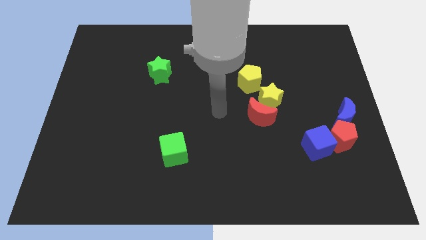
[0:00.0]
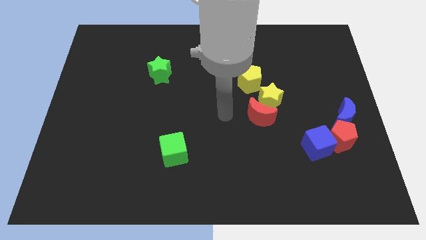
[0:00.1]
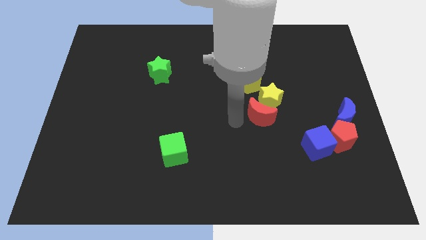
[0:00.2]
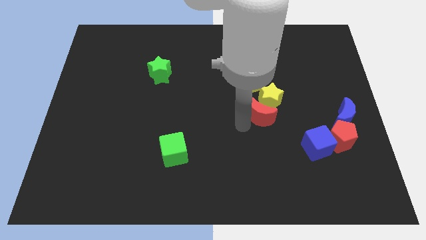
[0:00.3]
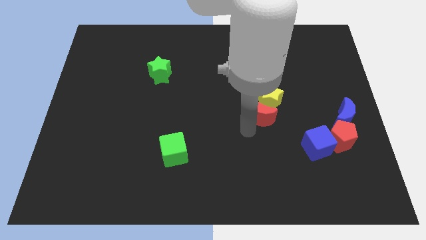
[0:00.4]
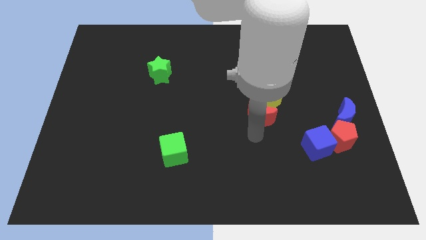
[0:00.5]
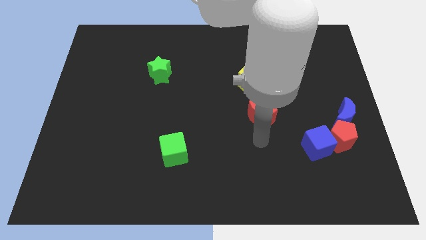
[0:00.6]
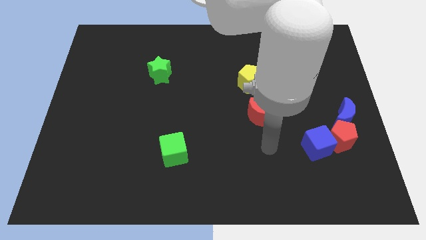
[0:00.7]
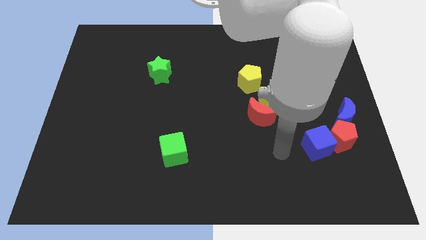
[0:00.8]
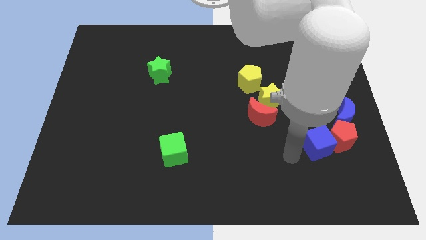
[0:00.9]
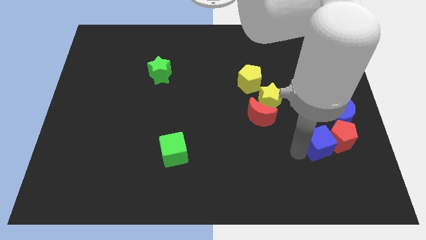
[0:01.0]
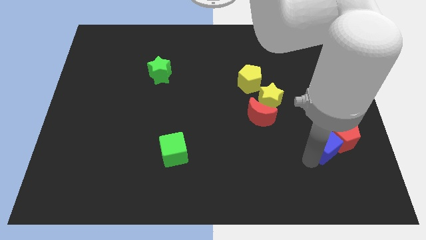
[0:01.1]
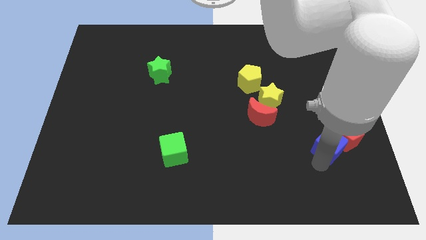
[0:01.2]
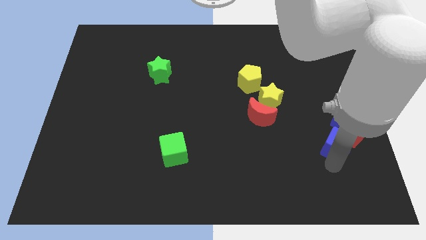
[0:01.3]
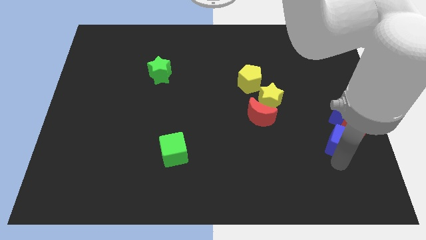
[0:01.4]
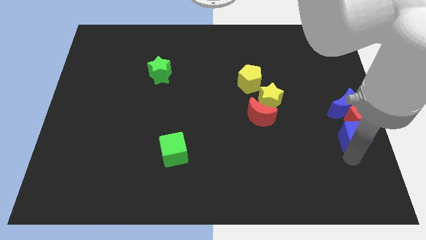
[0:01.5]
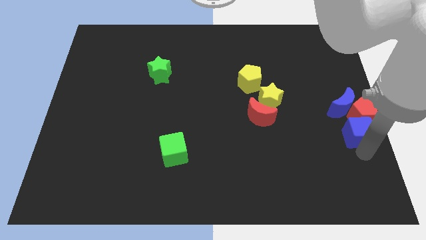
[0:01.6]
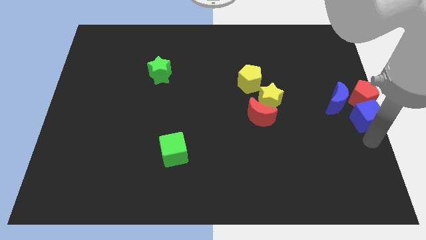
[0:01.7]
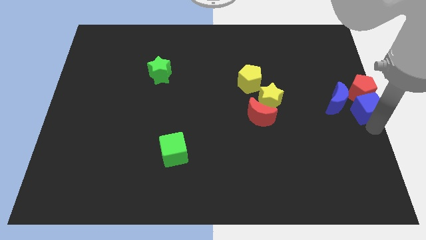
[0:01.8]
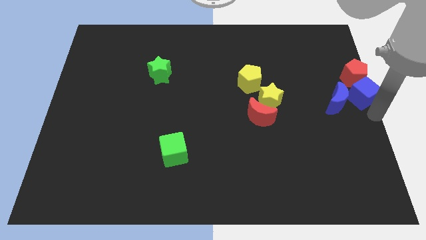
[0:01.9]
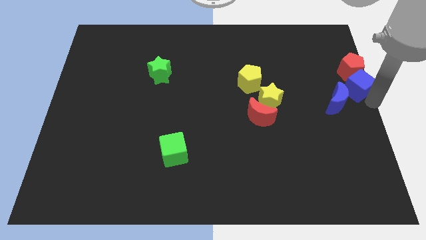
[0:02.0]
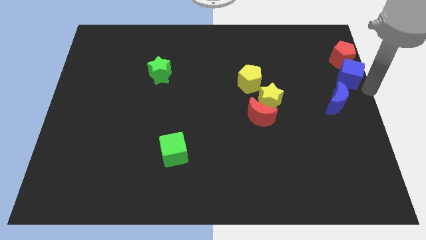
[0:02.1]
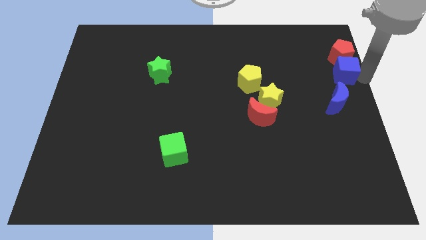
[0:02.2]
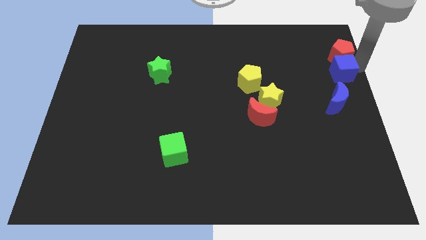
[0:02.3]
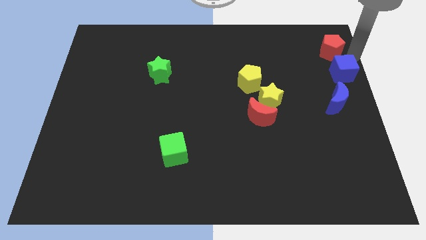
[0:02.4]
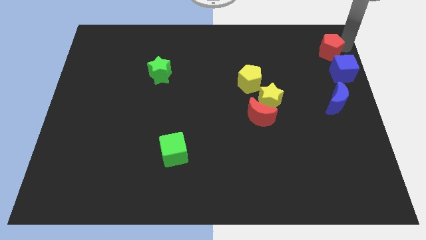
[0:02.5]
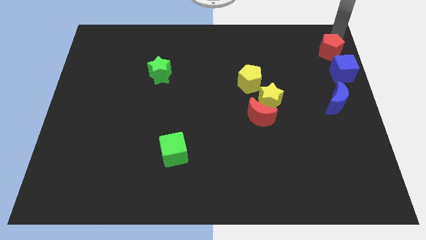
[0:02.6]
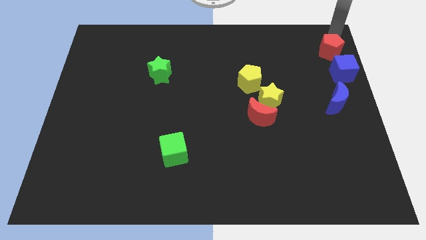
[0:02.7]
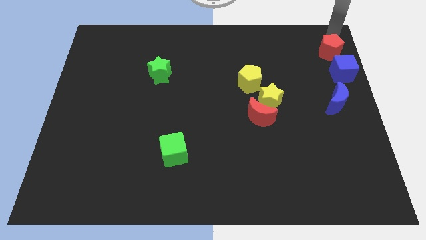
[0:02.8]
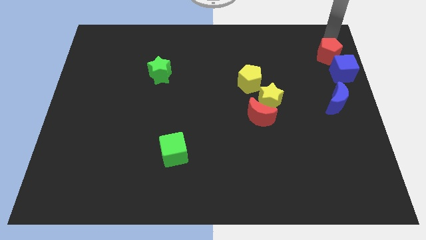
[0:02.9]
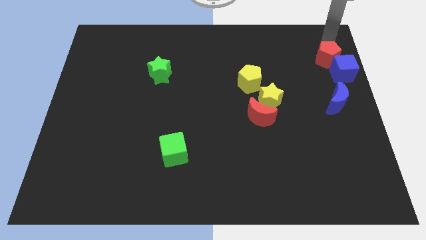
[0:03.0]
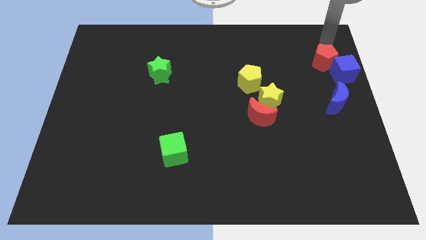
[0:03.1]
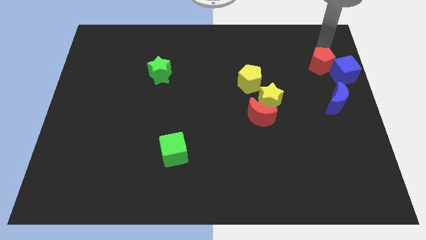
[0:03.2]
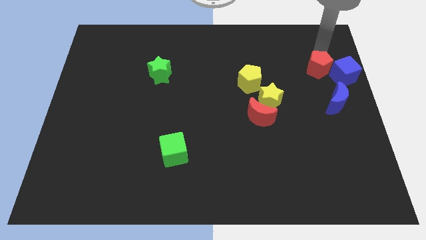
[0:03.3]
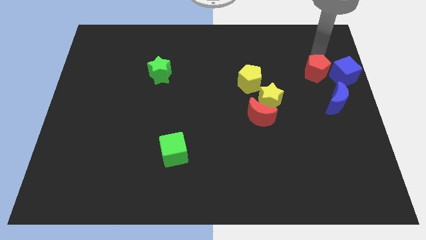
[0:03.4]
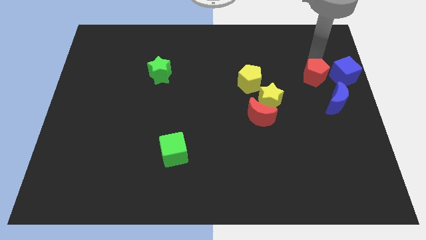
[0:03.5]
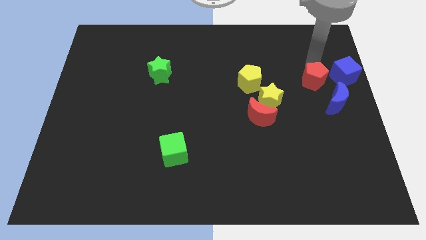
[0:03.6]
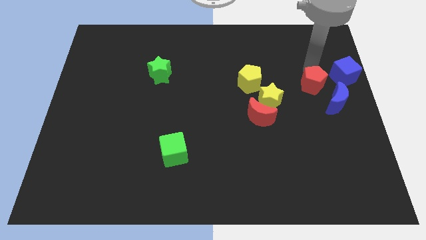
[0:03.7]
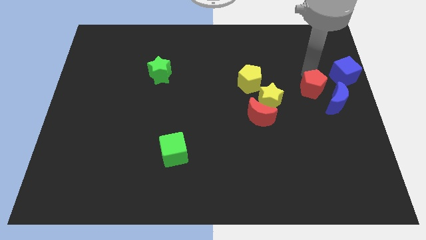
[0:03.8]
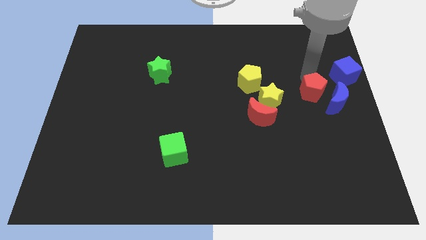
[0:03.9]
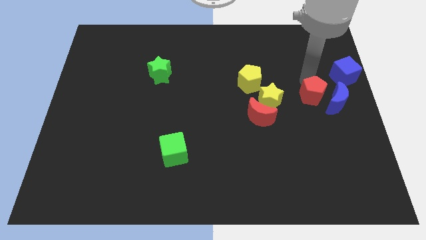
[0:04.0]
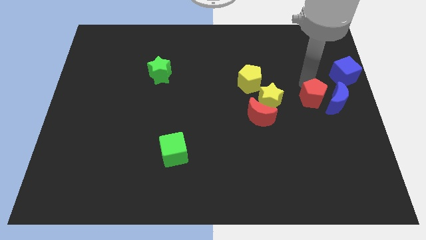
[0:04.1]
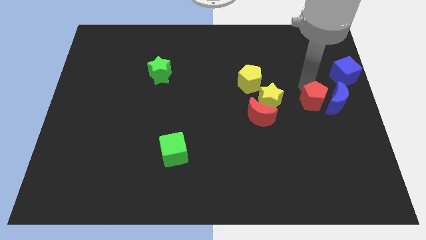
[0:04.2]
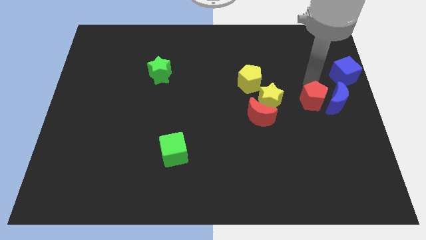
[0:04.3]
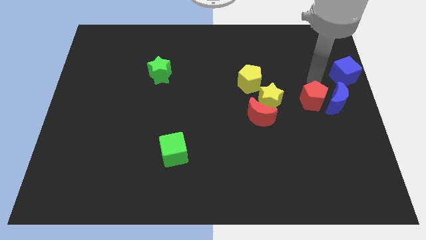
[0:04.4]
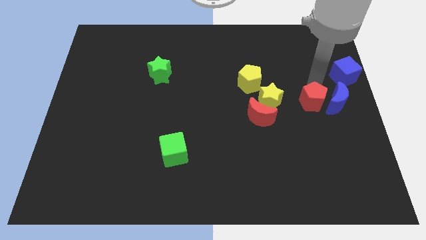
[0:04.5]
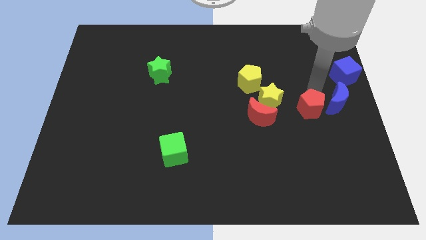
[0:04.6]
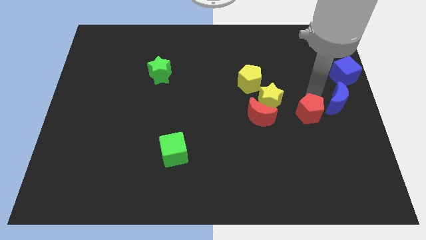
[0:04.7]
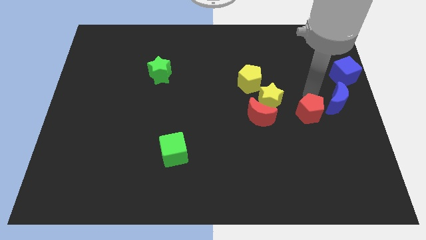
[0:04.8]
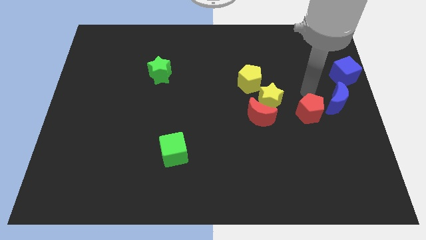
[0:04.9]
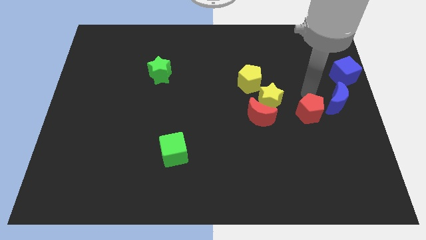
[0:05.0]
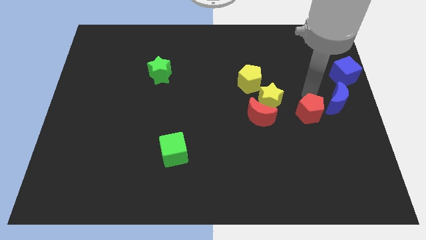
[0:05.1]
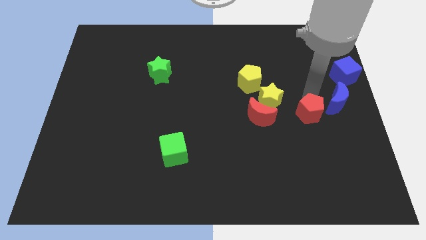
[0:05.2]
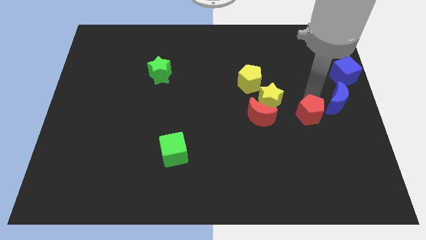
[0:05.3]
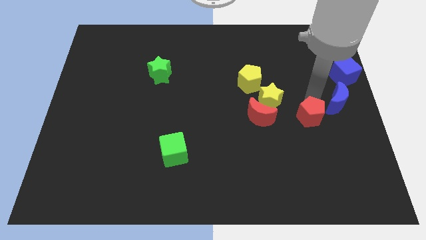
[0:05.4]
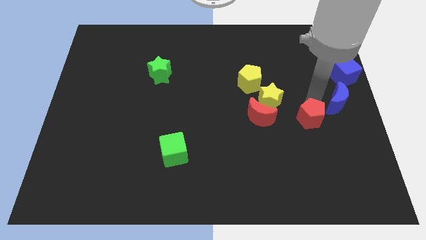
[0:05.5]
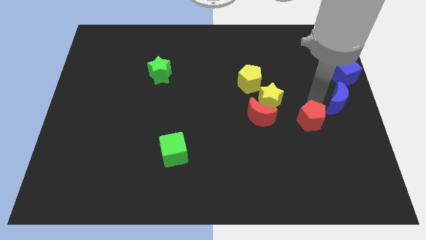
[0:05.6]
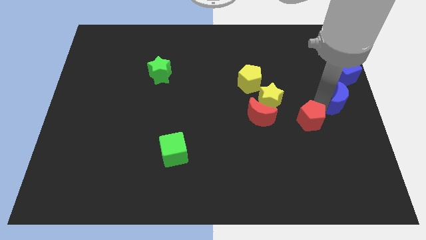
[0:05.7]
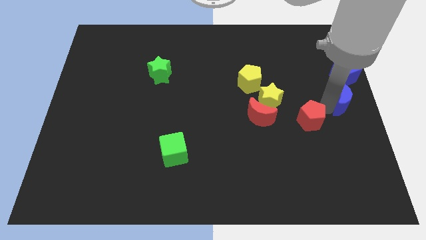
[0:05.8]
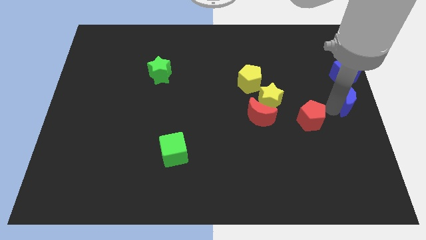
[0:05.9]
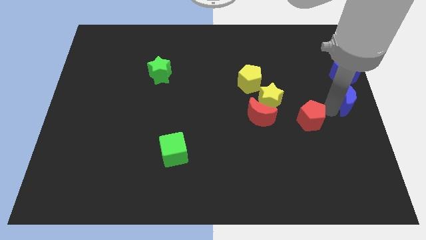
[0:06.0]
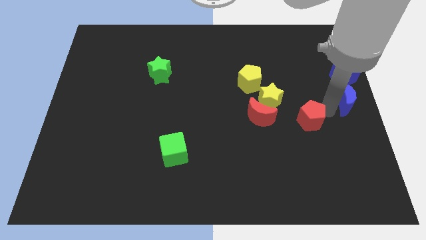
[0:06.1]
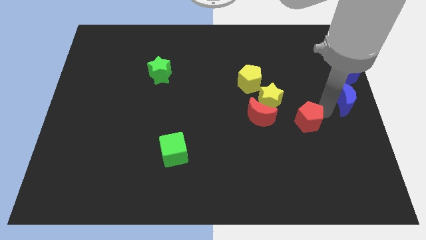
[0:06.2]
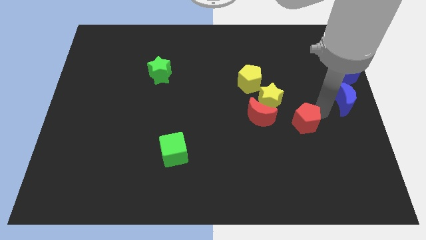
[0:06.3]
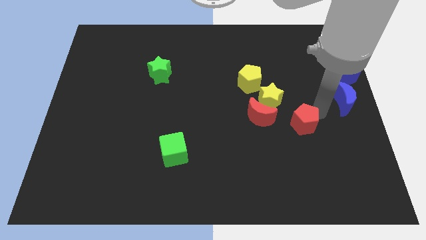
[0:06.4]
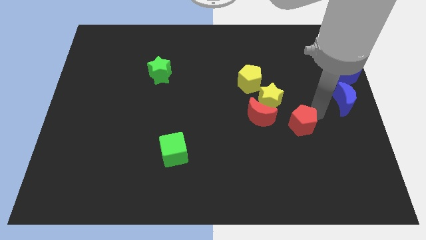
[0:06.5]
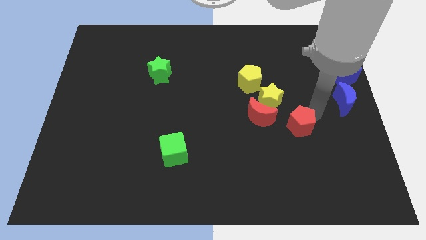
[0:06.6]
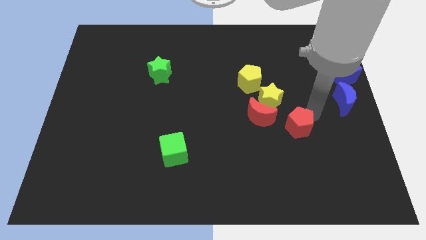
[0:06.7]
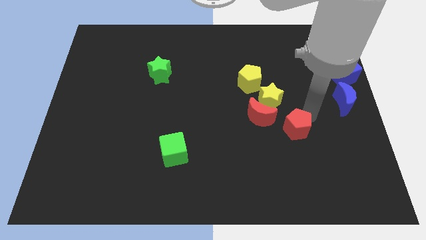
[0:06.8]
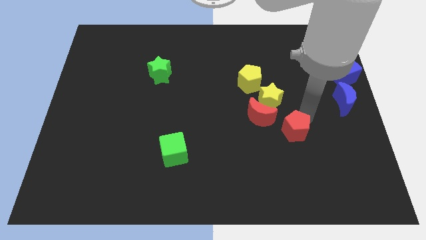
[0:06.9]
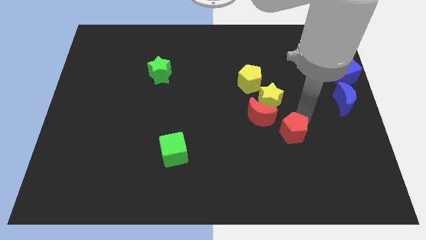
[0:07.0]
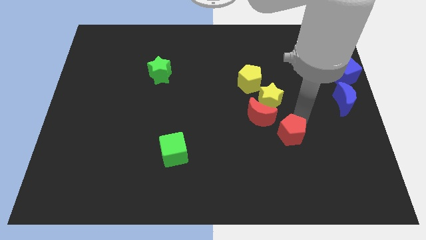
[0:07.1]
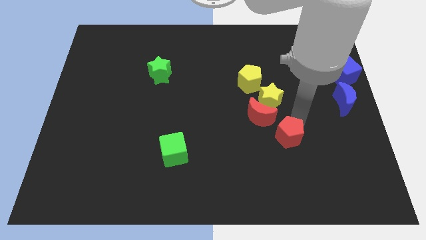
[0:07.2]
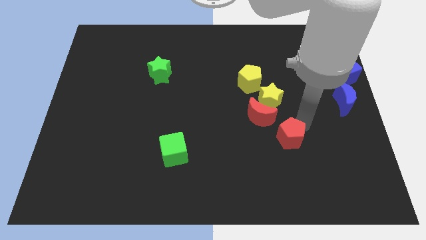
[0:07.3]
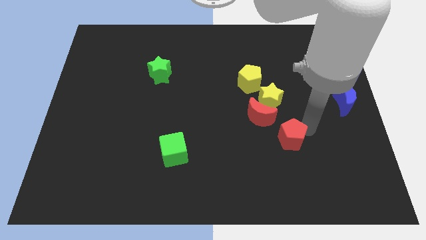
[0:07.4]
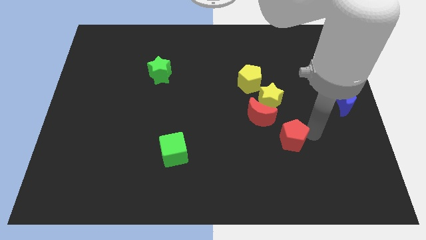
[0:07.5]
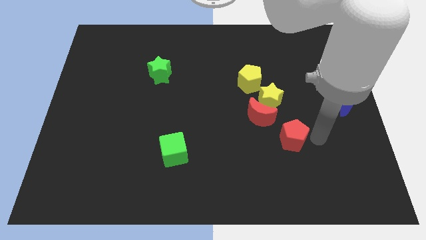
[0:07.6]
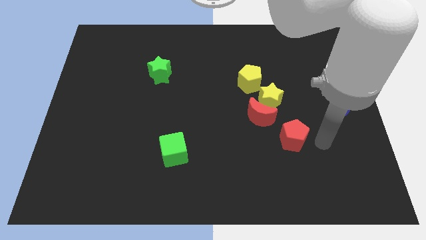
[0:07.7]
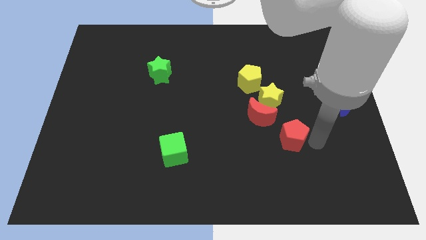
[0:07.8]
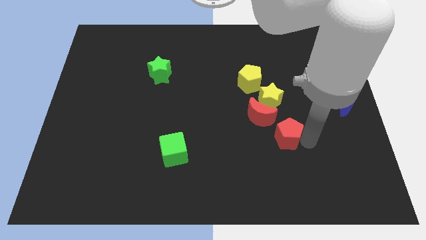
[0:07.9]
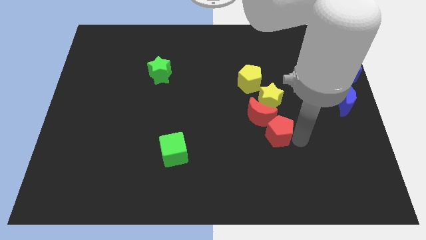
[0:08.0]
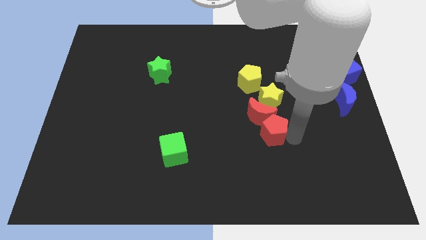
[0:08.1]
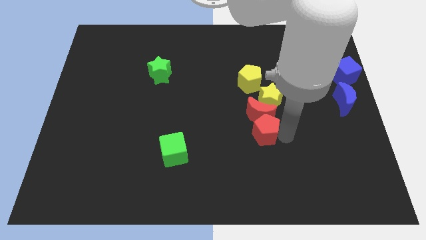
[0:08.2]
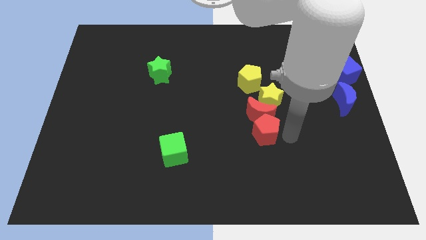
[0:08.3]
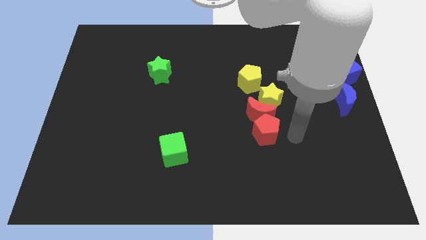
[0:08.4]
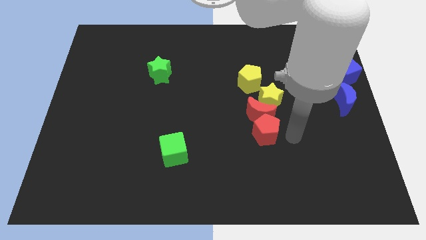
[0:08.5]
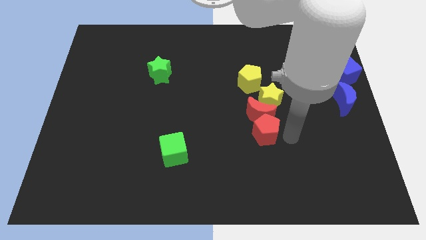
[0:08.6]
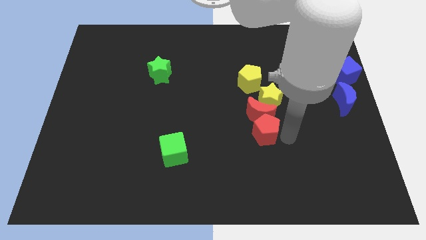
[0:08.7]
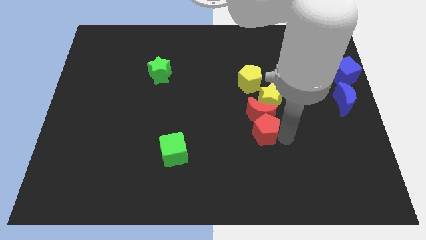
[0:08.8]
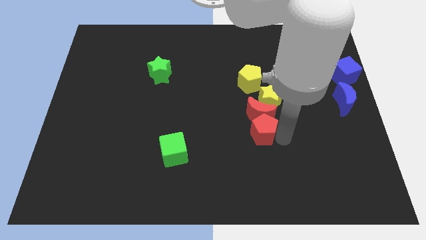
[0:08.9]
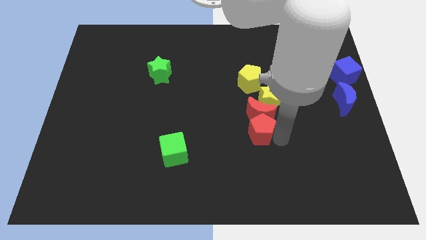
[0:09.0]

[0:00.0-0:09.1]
push the red pentagon to the bottom left side of the yellow star
